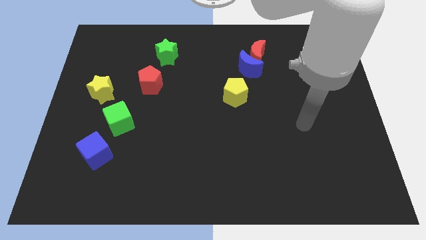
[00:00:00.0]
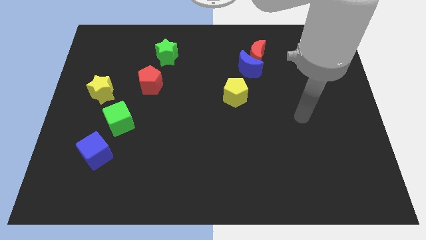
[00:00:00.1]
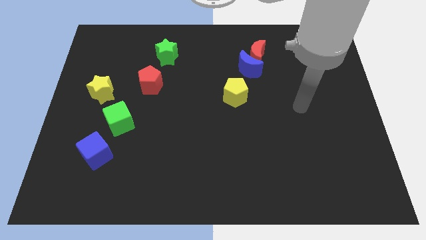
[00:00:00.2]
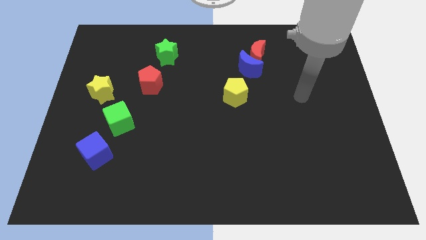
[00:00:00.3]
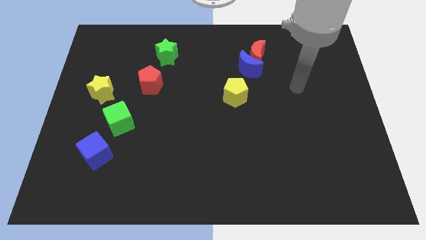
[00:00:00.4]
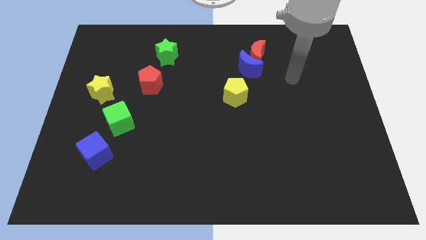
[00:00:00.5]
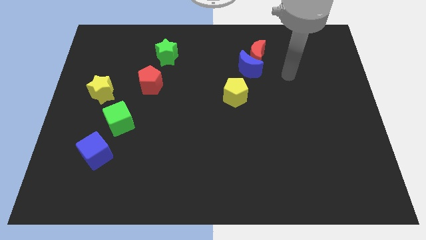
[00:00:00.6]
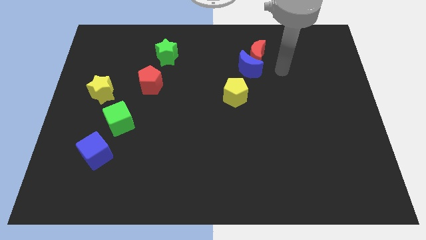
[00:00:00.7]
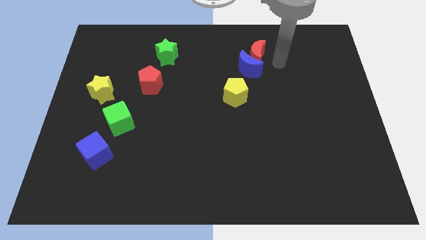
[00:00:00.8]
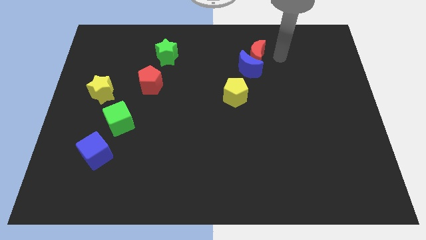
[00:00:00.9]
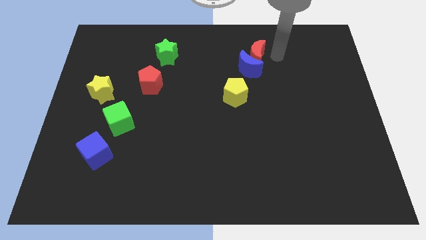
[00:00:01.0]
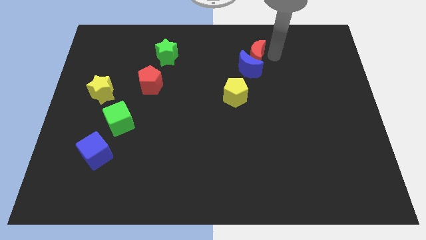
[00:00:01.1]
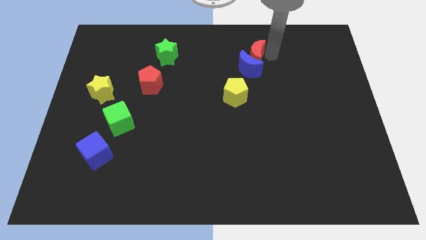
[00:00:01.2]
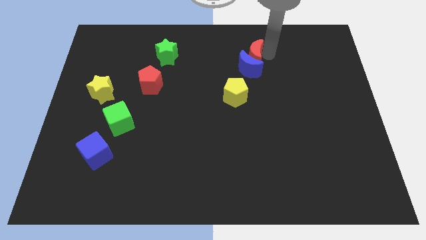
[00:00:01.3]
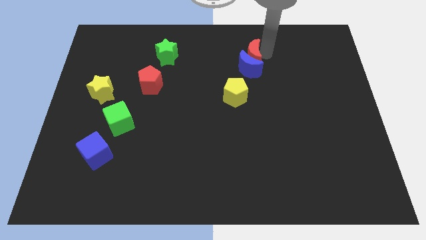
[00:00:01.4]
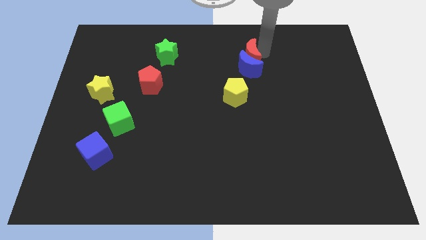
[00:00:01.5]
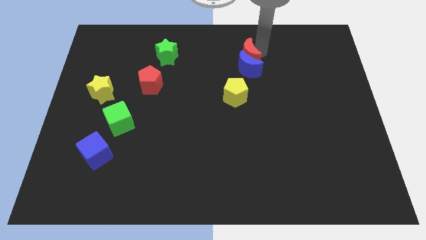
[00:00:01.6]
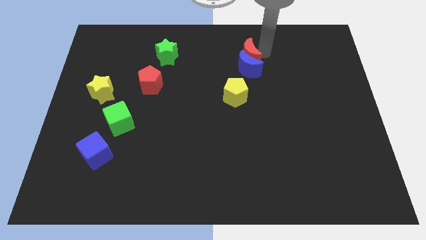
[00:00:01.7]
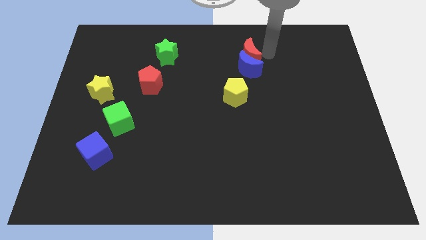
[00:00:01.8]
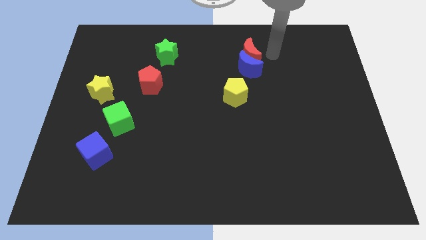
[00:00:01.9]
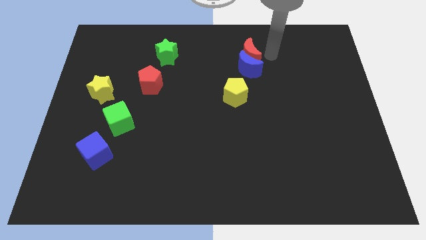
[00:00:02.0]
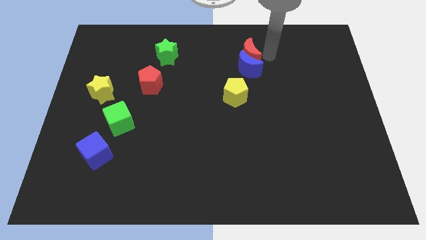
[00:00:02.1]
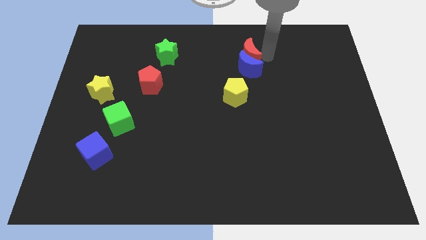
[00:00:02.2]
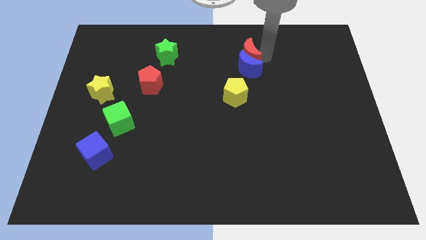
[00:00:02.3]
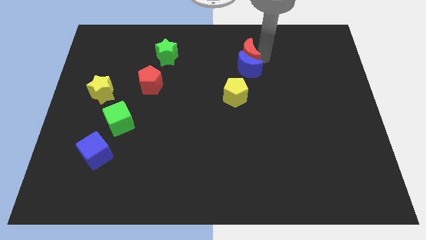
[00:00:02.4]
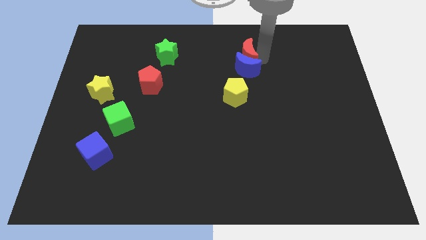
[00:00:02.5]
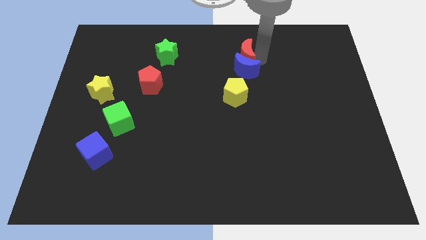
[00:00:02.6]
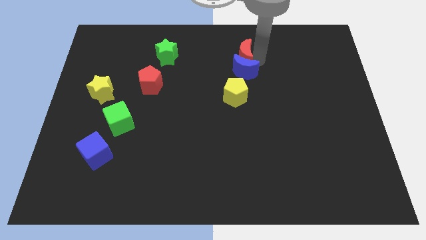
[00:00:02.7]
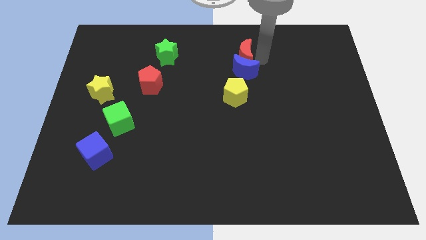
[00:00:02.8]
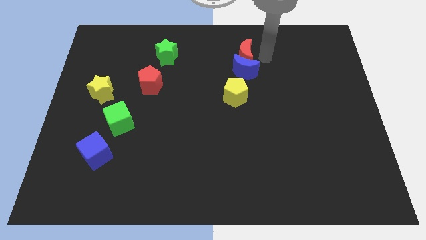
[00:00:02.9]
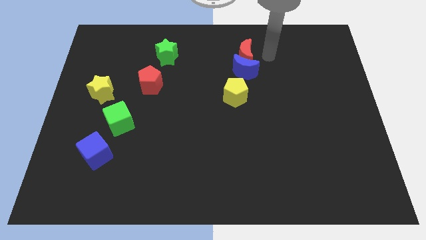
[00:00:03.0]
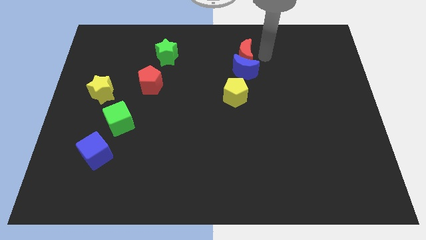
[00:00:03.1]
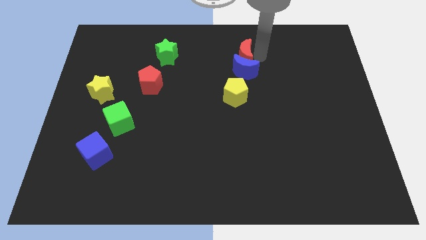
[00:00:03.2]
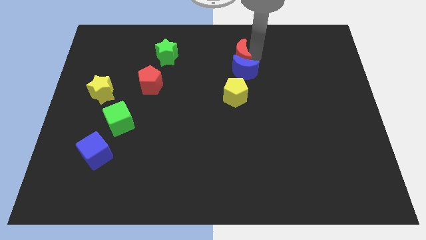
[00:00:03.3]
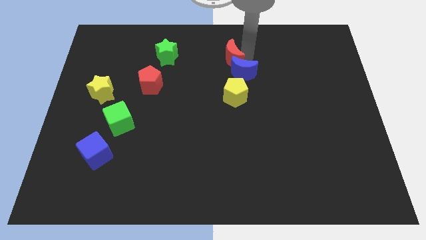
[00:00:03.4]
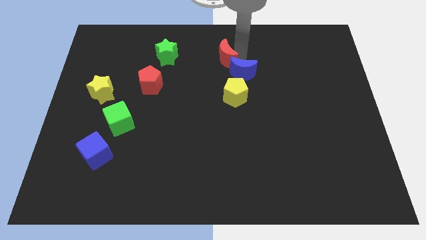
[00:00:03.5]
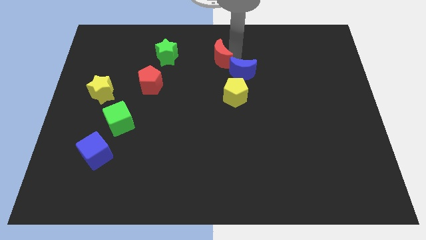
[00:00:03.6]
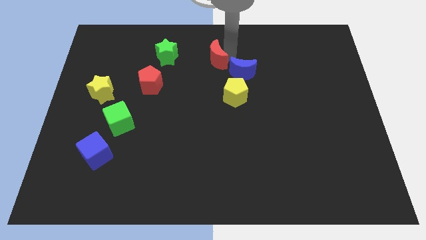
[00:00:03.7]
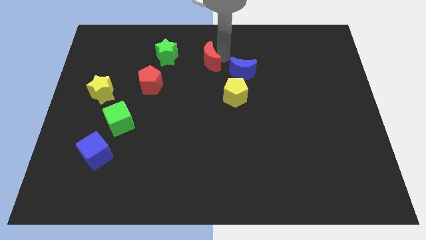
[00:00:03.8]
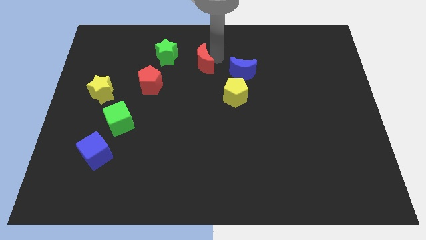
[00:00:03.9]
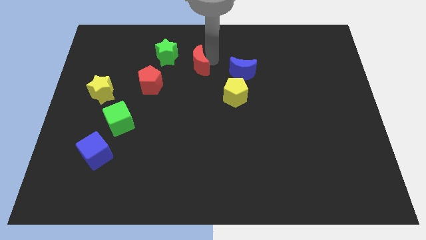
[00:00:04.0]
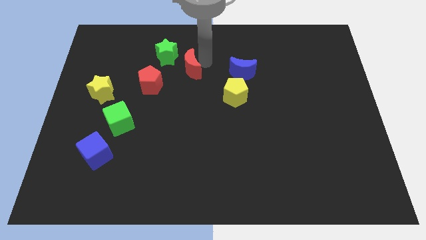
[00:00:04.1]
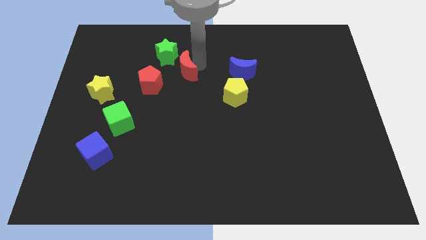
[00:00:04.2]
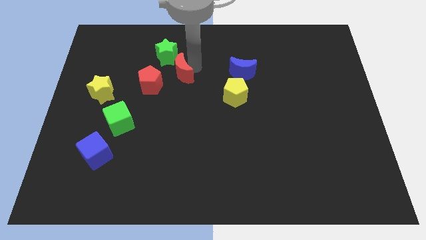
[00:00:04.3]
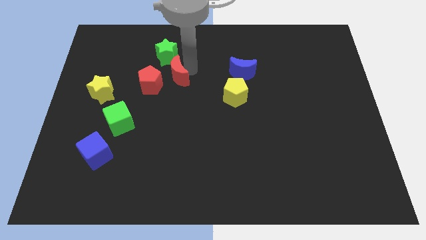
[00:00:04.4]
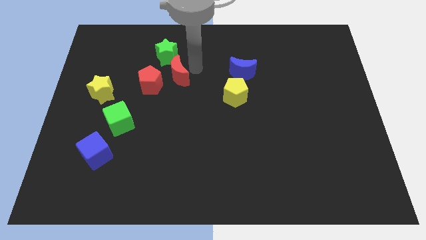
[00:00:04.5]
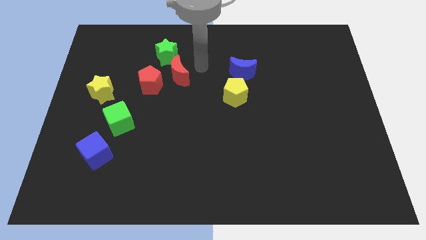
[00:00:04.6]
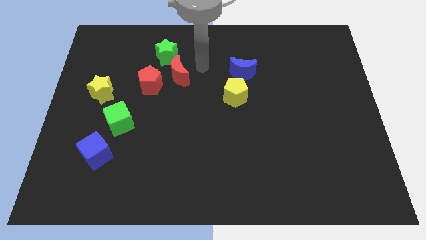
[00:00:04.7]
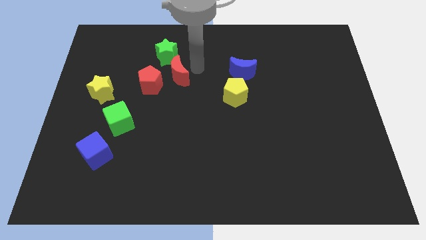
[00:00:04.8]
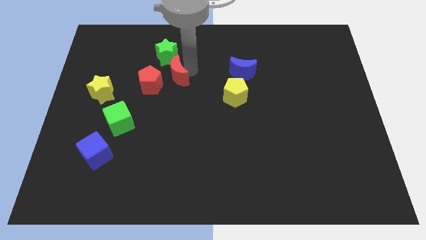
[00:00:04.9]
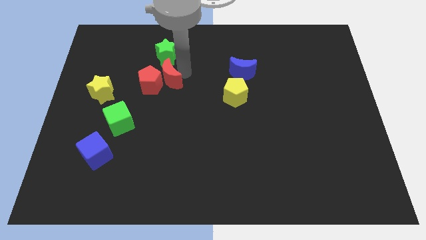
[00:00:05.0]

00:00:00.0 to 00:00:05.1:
slide the red moon to the red pentagon

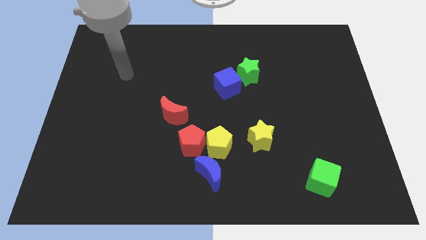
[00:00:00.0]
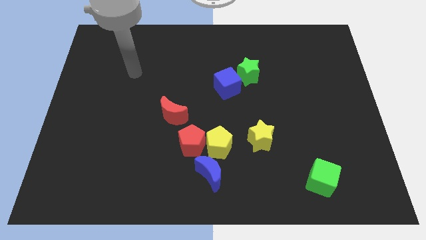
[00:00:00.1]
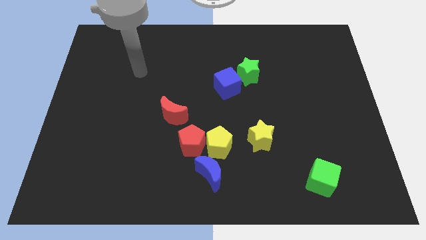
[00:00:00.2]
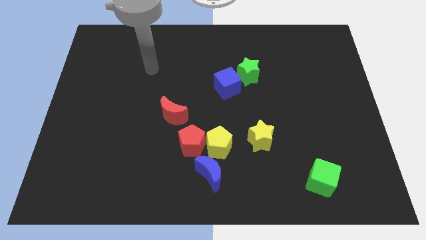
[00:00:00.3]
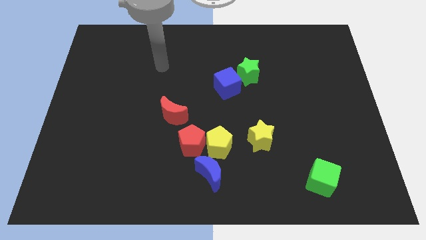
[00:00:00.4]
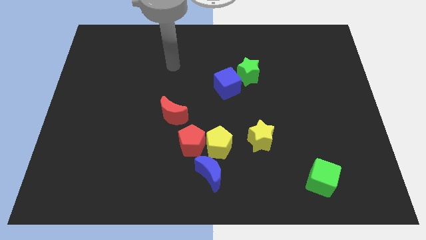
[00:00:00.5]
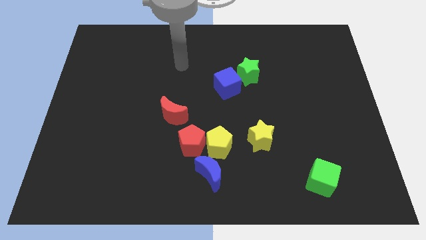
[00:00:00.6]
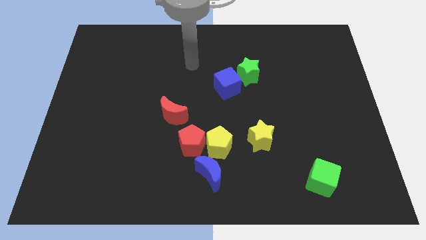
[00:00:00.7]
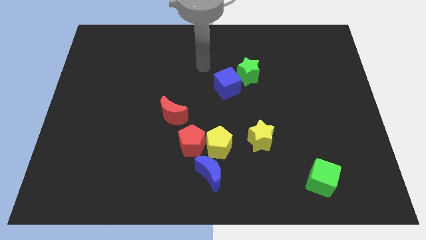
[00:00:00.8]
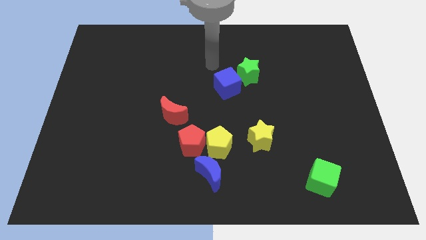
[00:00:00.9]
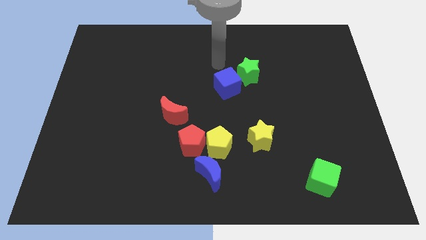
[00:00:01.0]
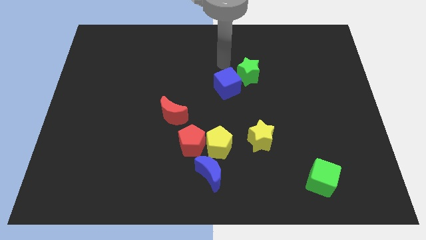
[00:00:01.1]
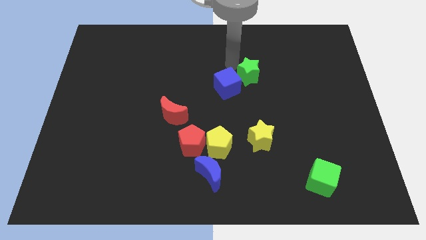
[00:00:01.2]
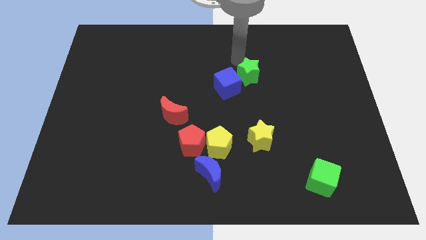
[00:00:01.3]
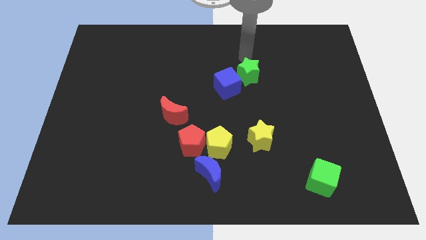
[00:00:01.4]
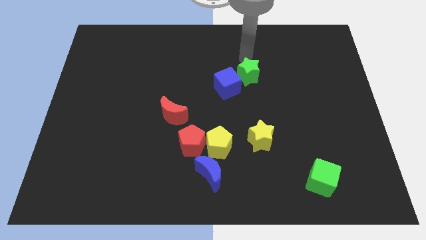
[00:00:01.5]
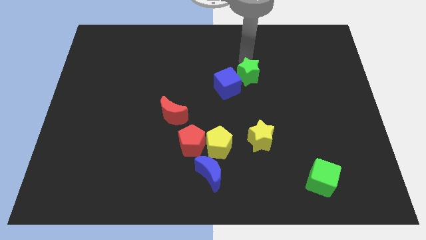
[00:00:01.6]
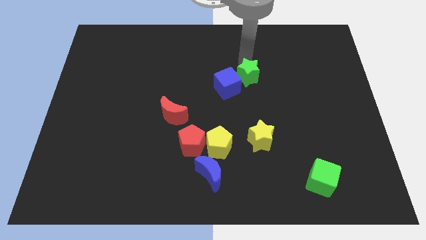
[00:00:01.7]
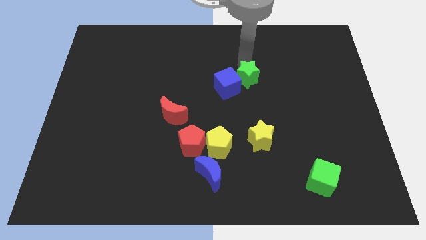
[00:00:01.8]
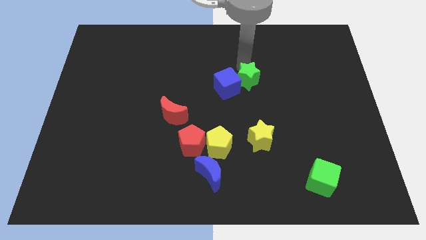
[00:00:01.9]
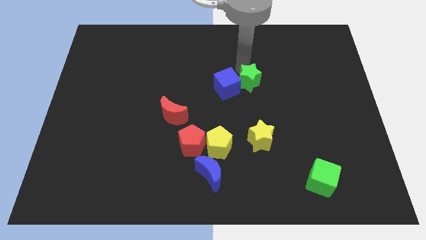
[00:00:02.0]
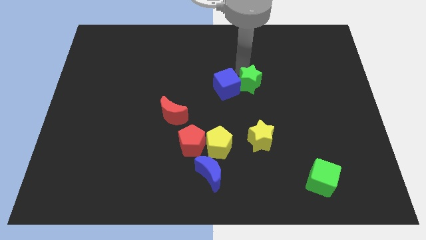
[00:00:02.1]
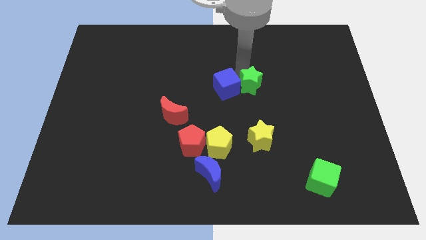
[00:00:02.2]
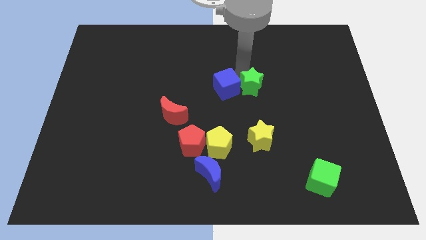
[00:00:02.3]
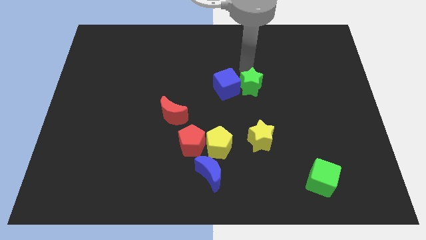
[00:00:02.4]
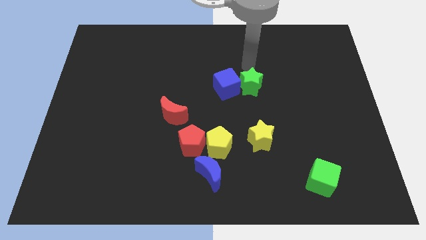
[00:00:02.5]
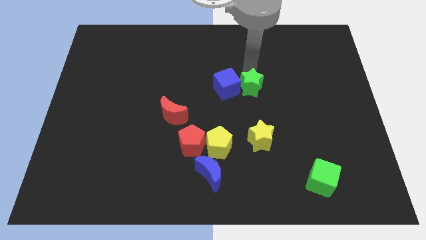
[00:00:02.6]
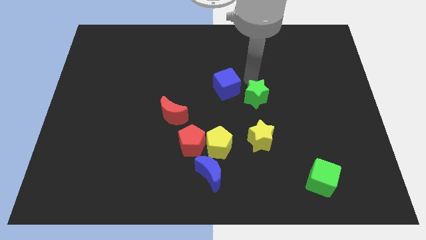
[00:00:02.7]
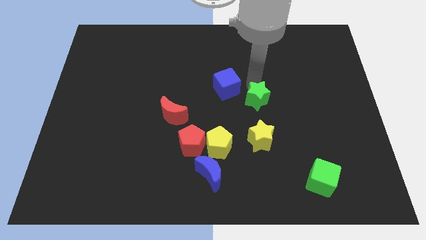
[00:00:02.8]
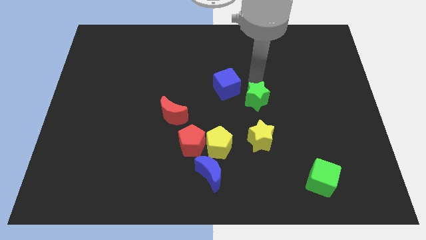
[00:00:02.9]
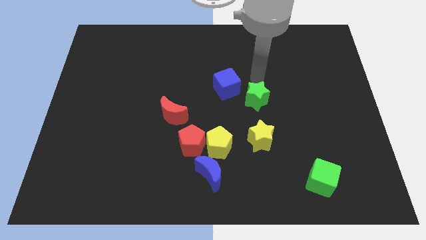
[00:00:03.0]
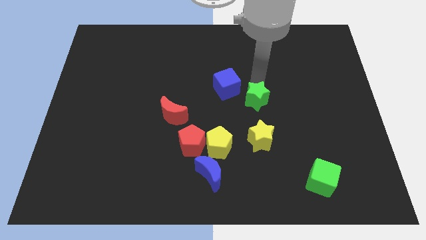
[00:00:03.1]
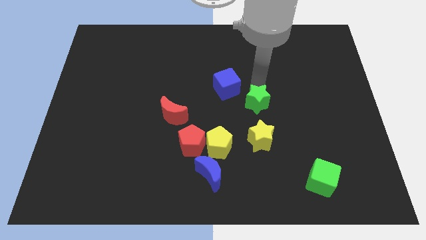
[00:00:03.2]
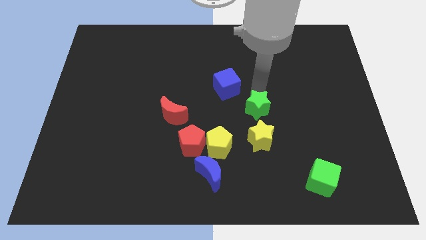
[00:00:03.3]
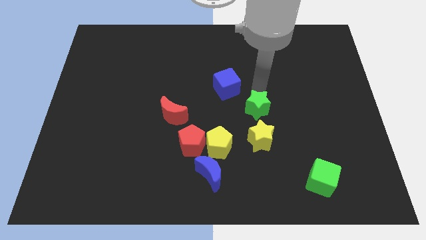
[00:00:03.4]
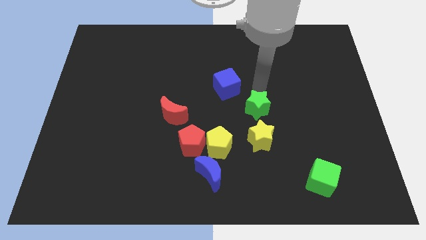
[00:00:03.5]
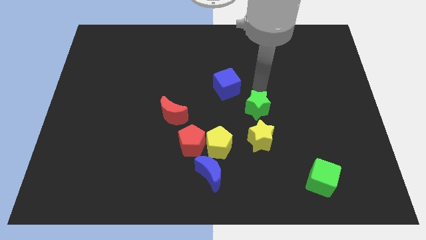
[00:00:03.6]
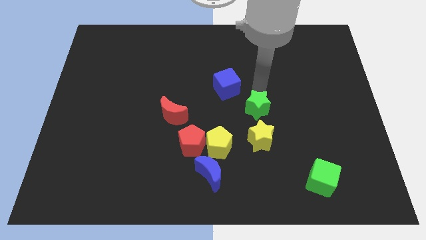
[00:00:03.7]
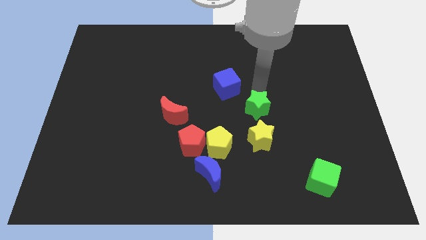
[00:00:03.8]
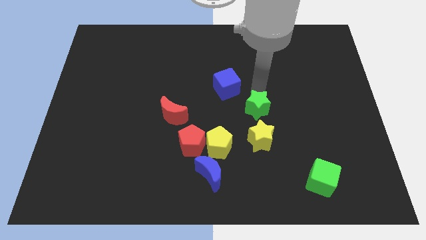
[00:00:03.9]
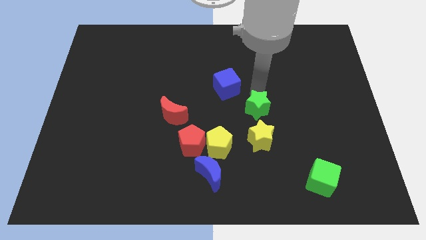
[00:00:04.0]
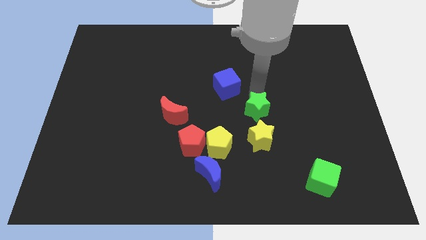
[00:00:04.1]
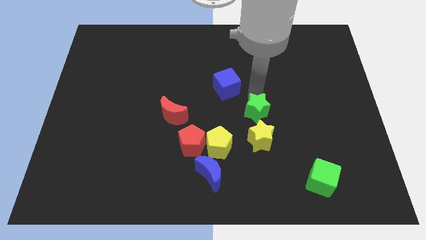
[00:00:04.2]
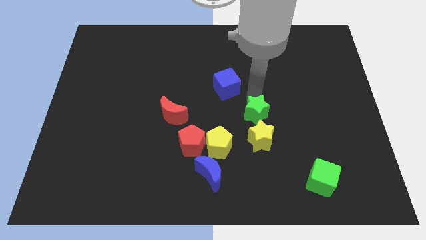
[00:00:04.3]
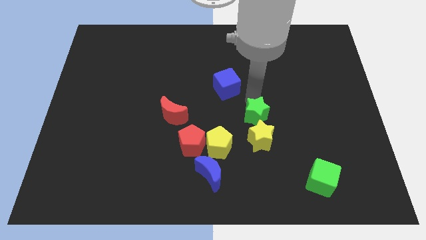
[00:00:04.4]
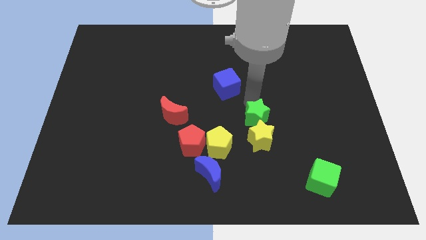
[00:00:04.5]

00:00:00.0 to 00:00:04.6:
push the green star to the yellow star
